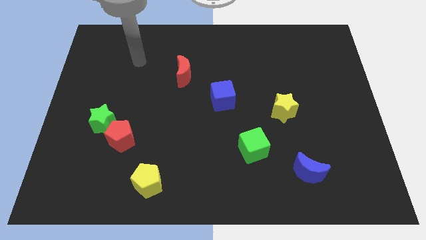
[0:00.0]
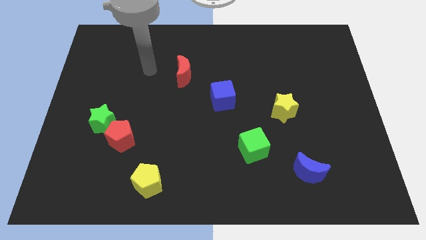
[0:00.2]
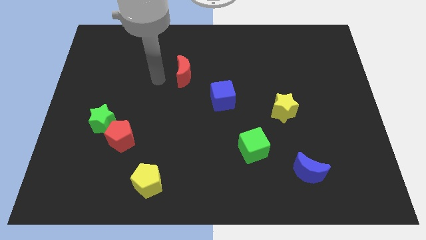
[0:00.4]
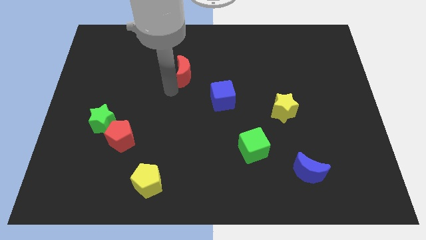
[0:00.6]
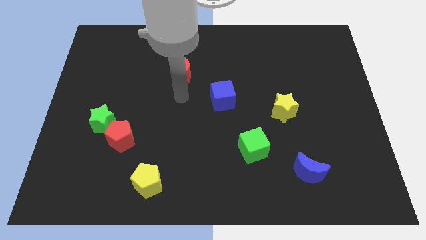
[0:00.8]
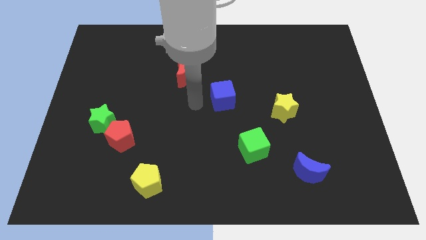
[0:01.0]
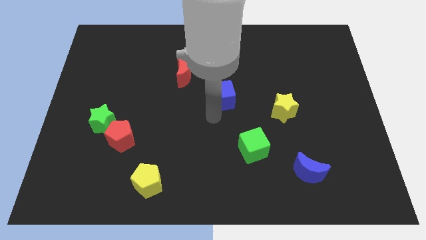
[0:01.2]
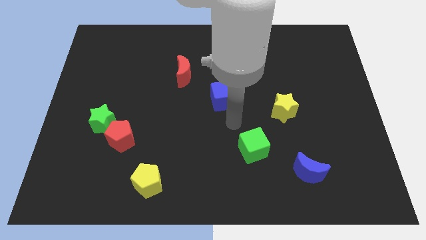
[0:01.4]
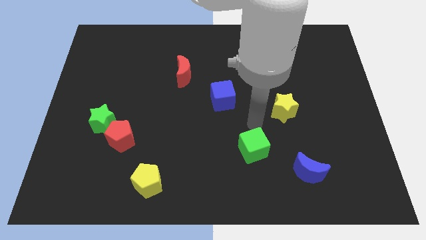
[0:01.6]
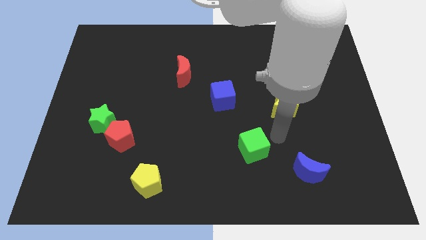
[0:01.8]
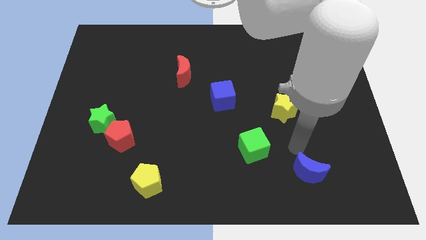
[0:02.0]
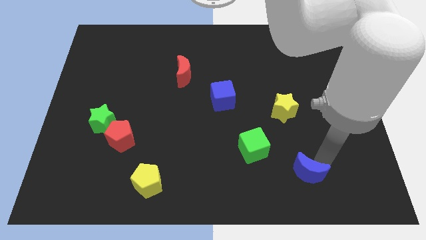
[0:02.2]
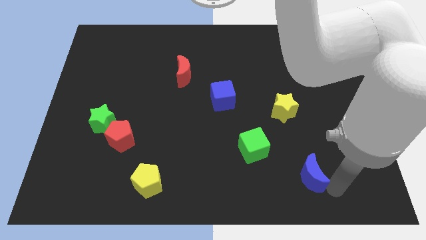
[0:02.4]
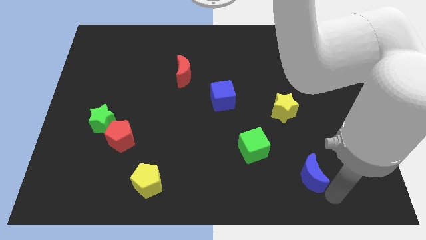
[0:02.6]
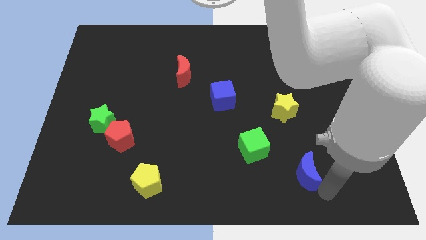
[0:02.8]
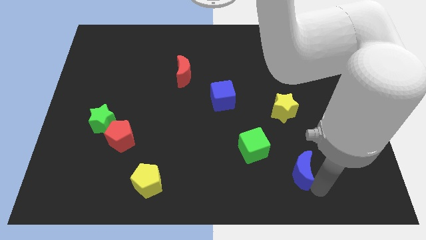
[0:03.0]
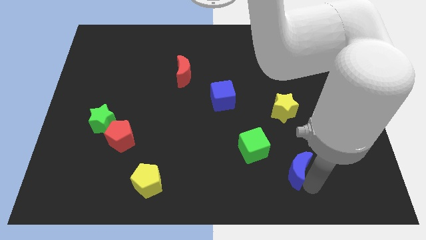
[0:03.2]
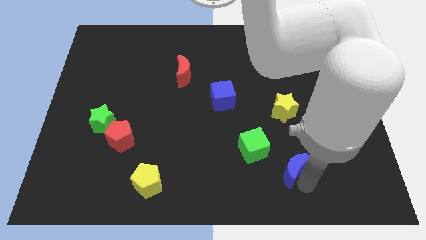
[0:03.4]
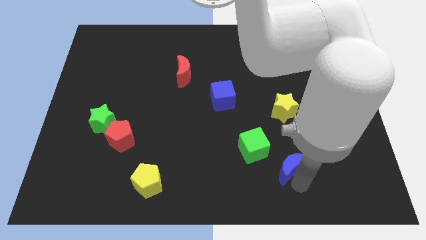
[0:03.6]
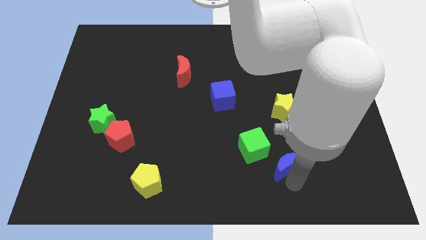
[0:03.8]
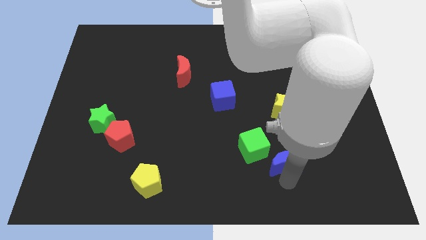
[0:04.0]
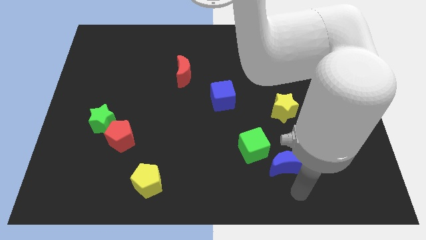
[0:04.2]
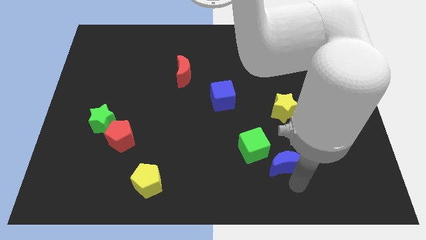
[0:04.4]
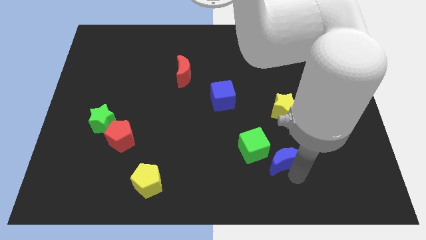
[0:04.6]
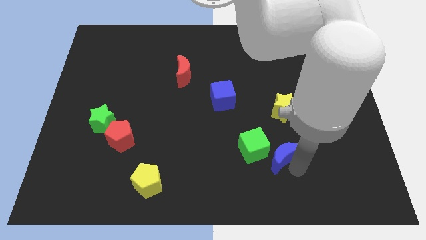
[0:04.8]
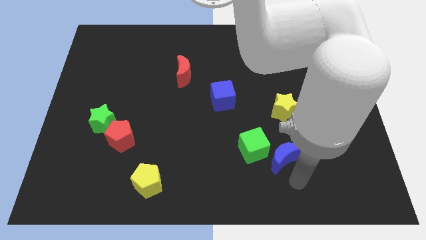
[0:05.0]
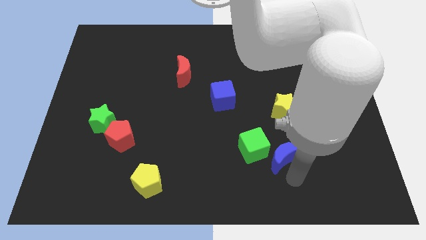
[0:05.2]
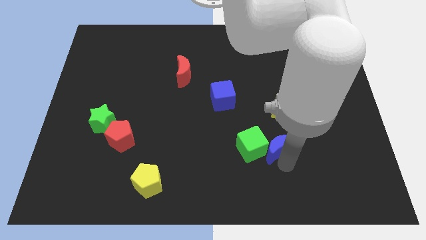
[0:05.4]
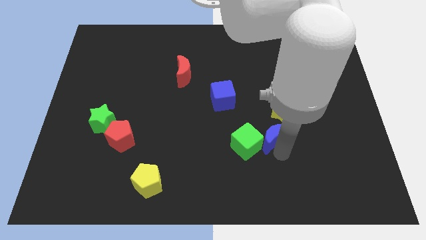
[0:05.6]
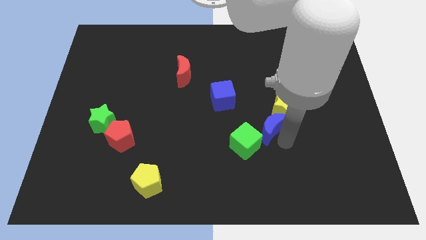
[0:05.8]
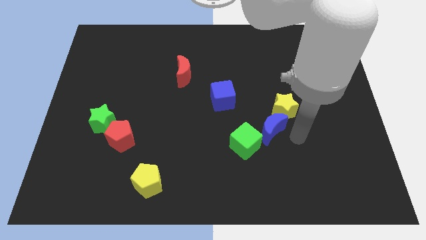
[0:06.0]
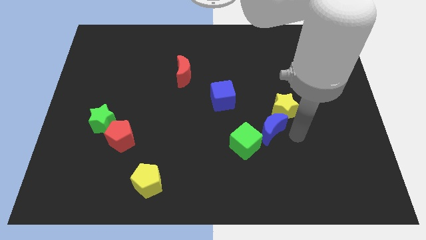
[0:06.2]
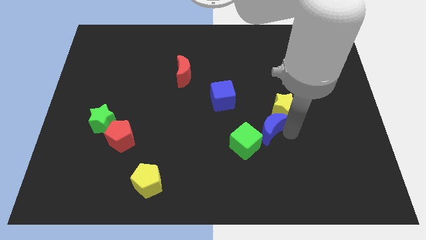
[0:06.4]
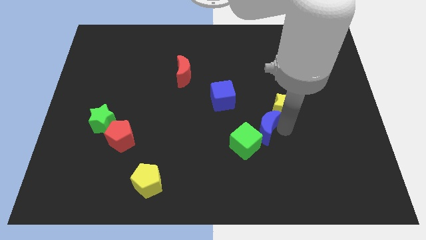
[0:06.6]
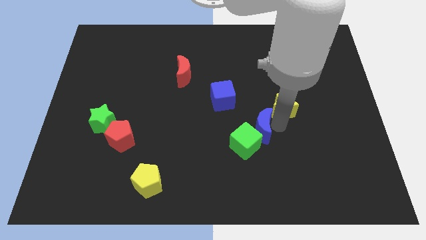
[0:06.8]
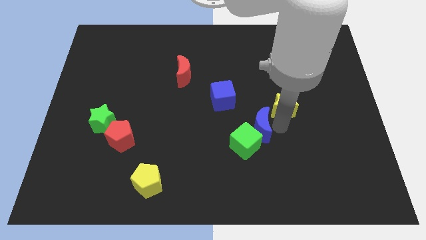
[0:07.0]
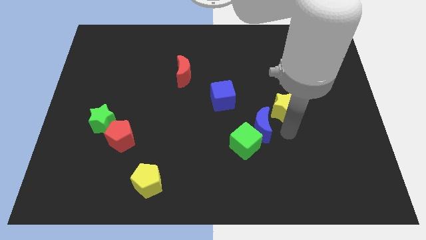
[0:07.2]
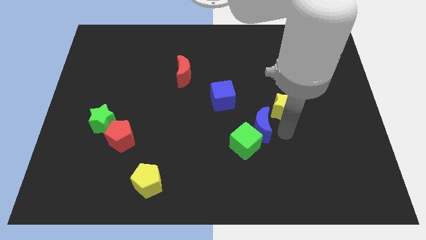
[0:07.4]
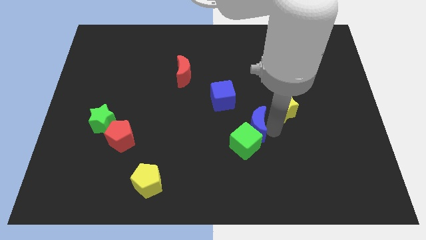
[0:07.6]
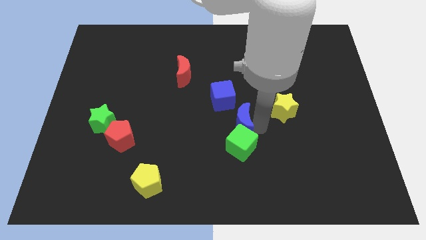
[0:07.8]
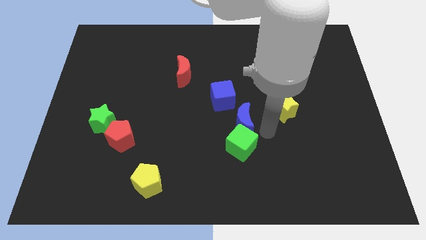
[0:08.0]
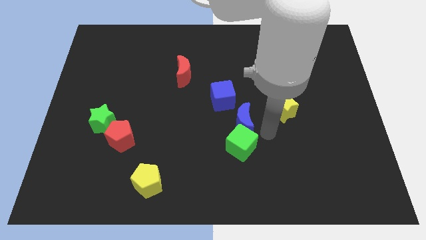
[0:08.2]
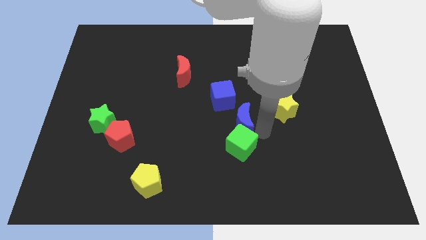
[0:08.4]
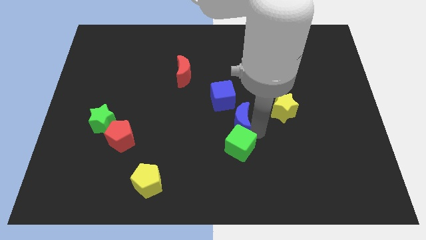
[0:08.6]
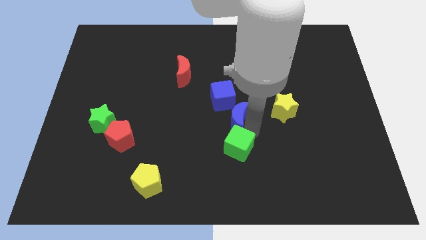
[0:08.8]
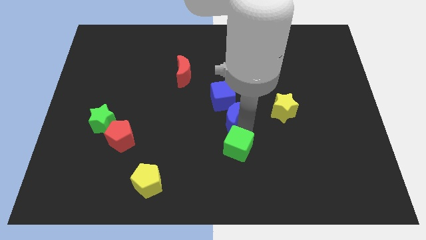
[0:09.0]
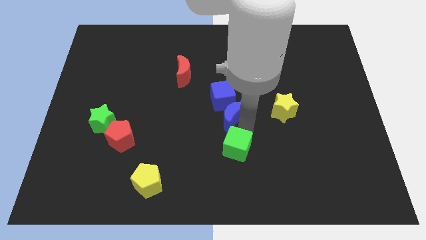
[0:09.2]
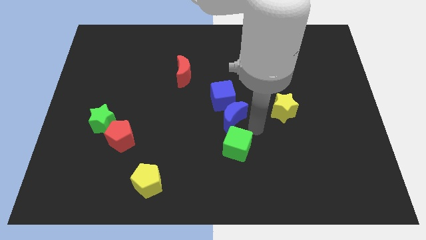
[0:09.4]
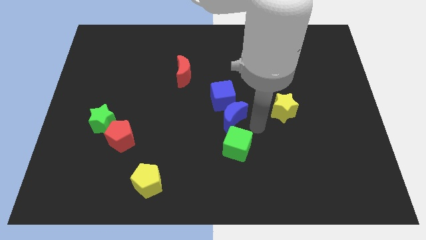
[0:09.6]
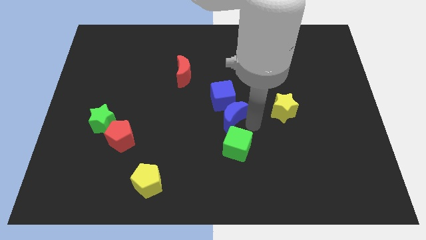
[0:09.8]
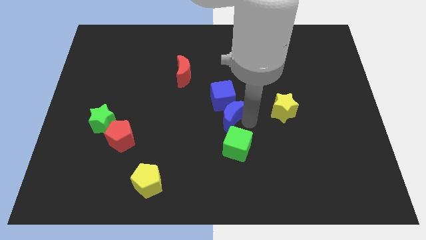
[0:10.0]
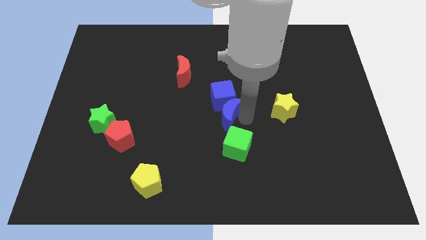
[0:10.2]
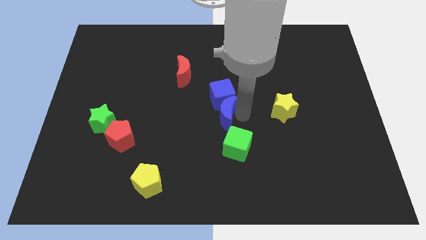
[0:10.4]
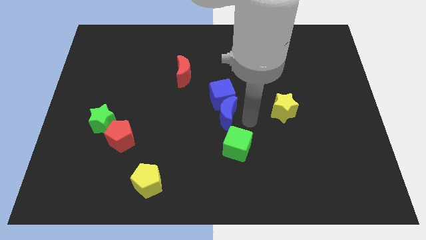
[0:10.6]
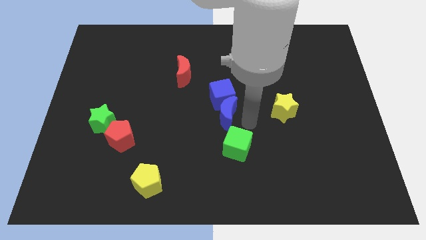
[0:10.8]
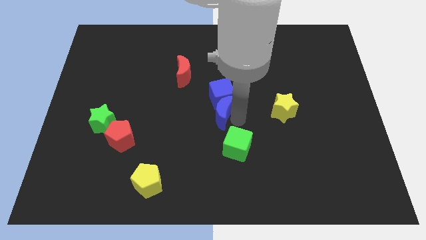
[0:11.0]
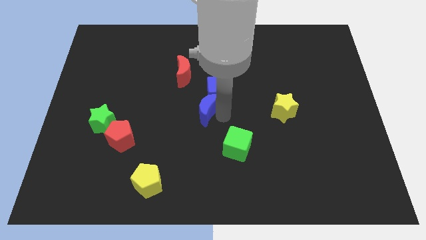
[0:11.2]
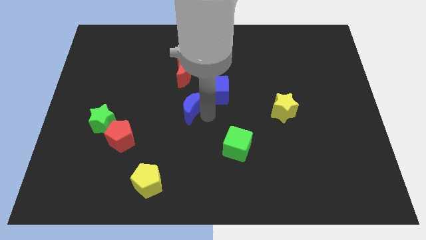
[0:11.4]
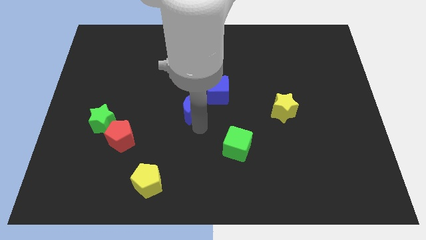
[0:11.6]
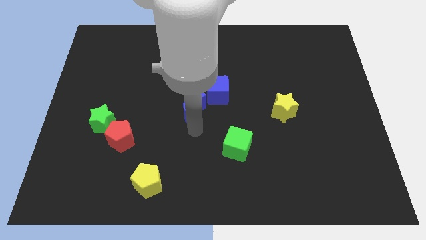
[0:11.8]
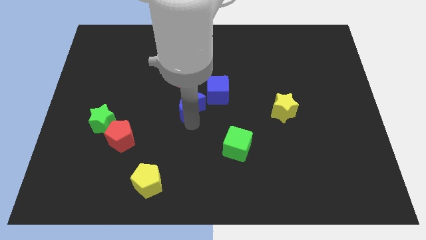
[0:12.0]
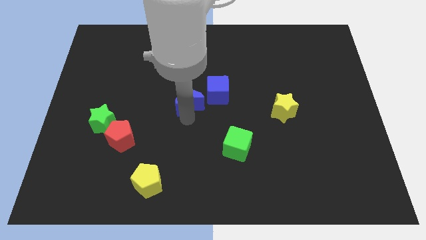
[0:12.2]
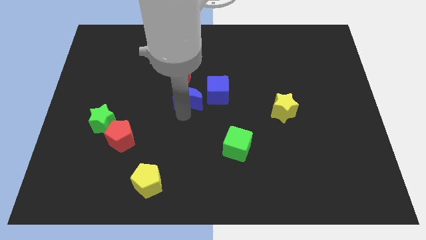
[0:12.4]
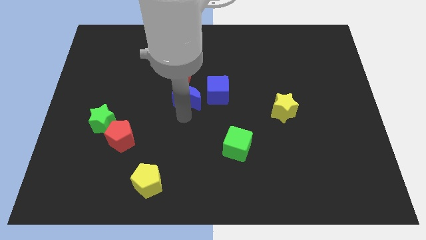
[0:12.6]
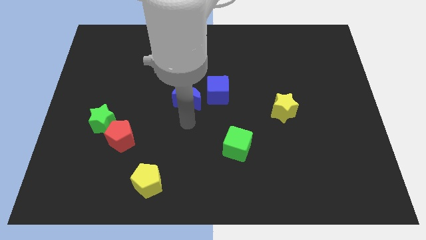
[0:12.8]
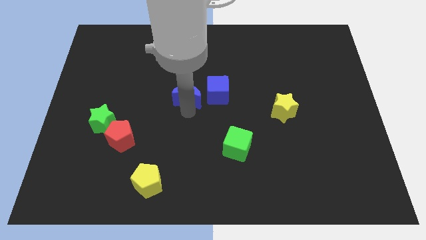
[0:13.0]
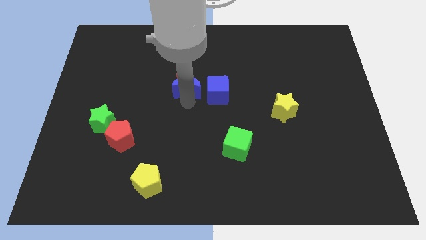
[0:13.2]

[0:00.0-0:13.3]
move the blue moon to the red moon

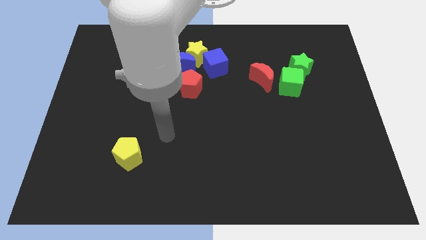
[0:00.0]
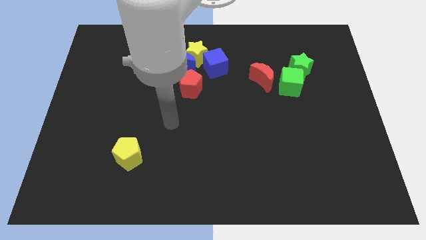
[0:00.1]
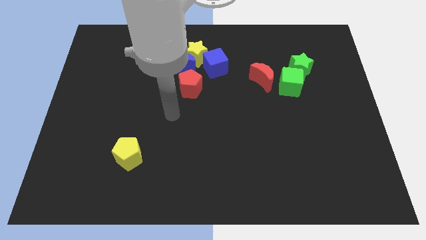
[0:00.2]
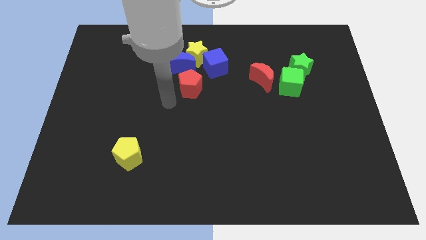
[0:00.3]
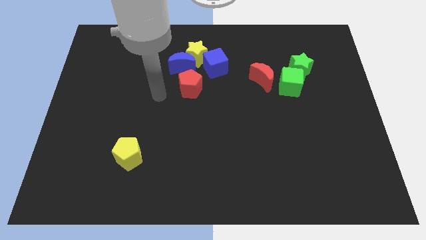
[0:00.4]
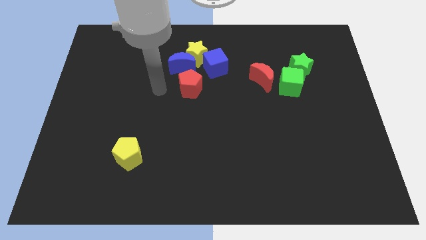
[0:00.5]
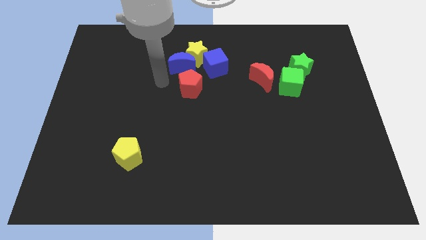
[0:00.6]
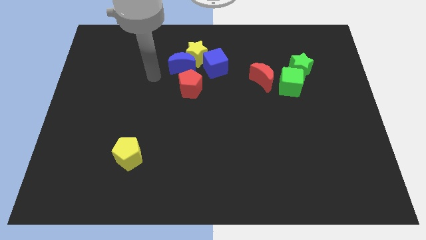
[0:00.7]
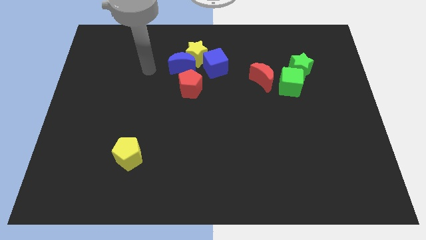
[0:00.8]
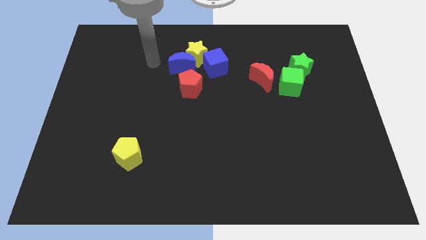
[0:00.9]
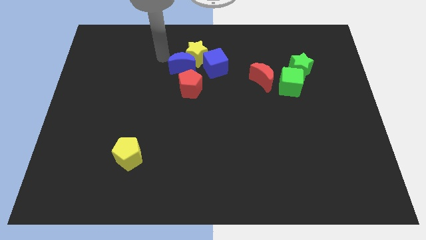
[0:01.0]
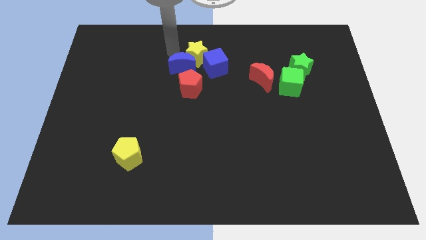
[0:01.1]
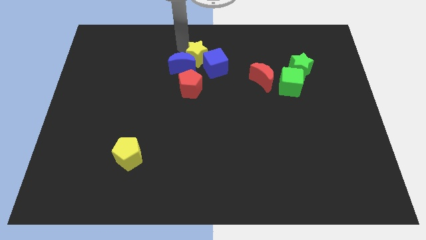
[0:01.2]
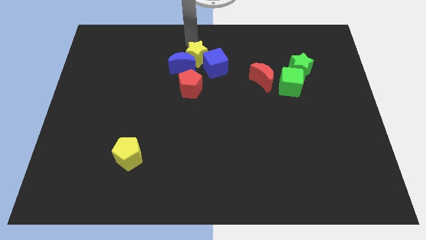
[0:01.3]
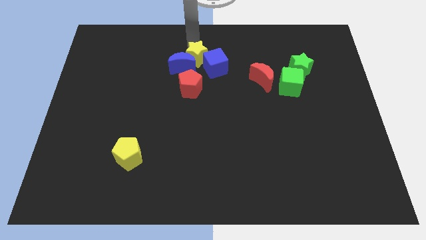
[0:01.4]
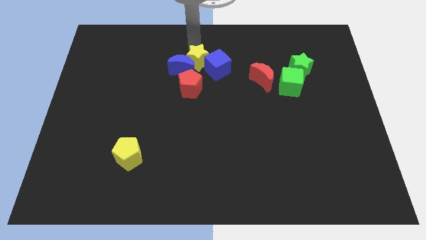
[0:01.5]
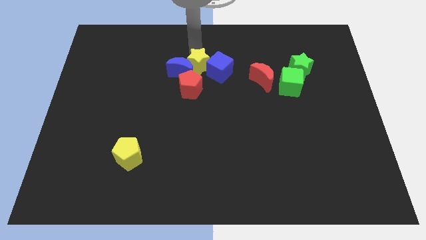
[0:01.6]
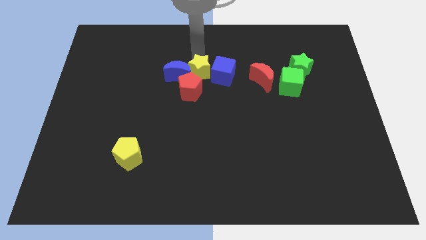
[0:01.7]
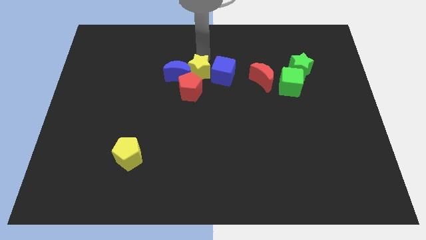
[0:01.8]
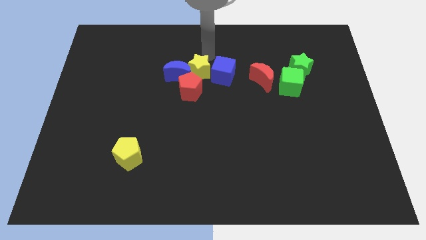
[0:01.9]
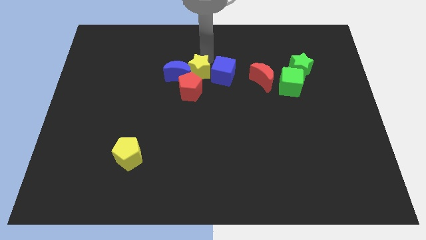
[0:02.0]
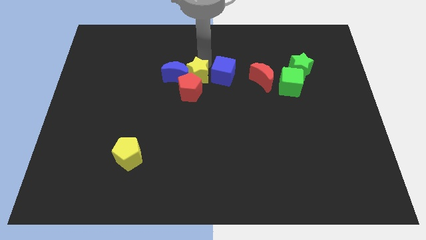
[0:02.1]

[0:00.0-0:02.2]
put the yellow star close to the red pentagon
